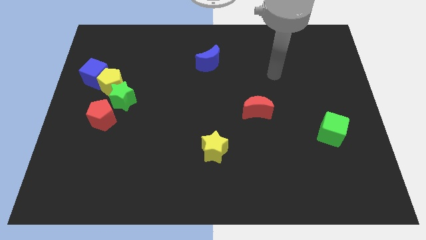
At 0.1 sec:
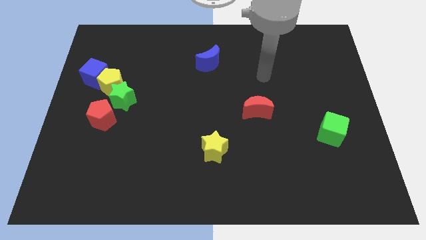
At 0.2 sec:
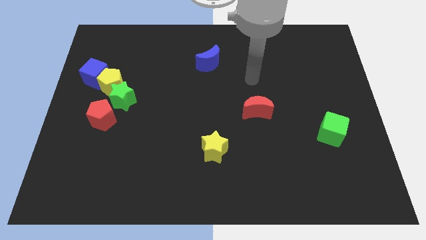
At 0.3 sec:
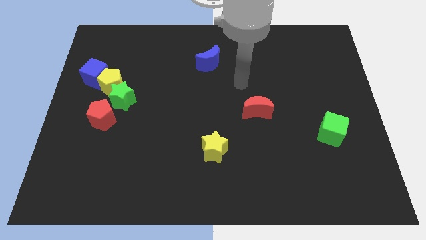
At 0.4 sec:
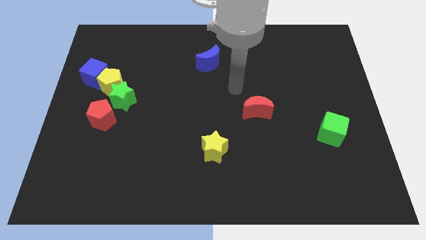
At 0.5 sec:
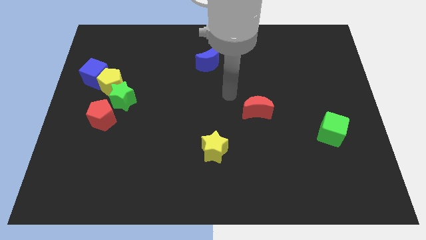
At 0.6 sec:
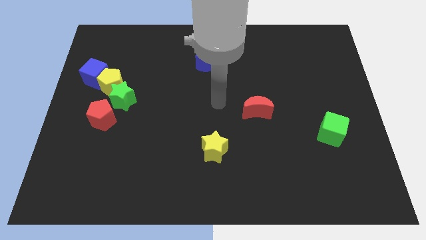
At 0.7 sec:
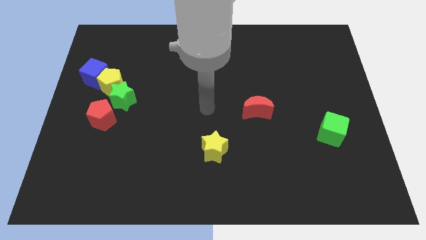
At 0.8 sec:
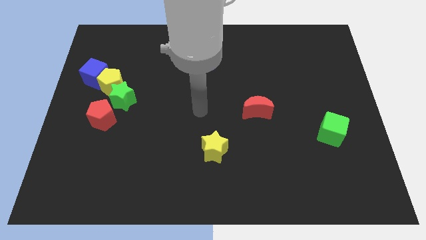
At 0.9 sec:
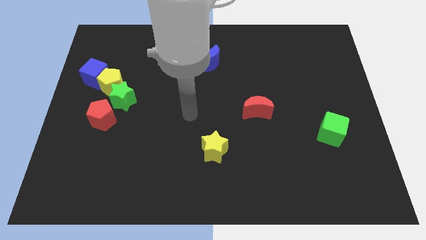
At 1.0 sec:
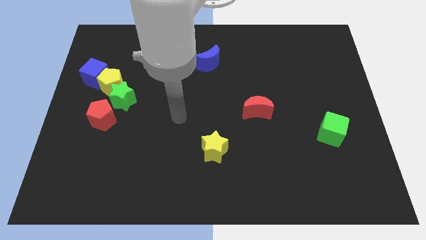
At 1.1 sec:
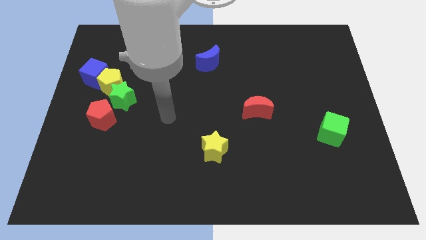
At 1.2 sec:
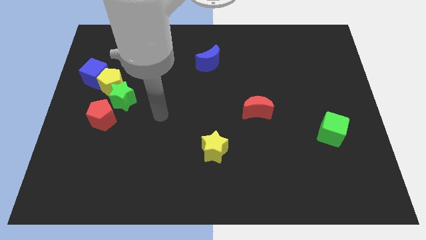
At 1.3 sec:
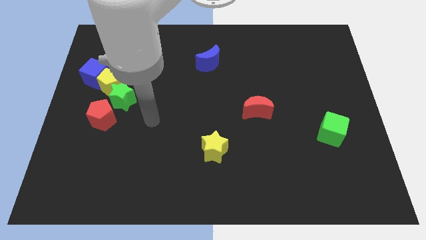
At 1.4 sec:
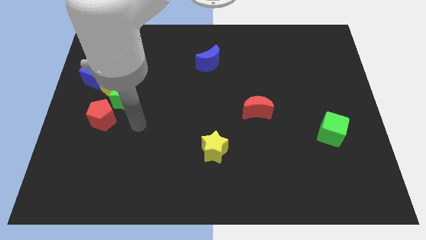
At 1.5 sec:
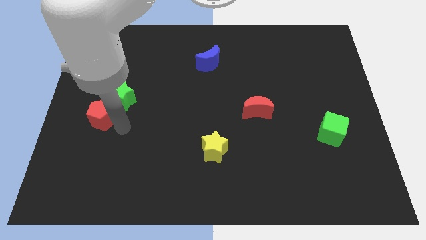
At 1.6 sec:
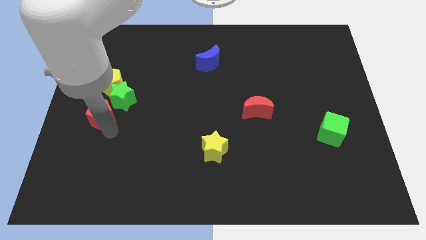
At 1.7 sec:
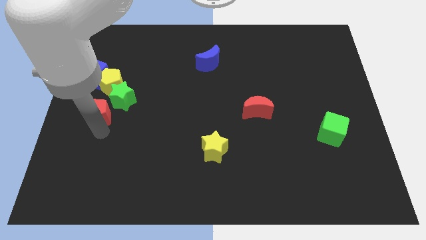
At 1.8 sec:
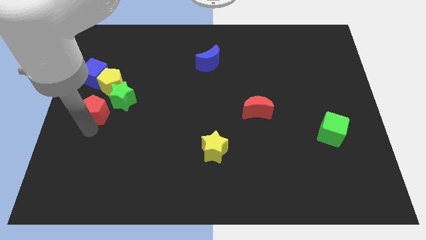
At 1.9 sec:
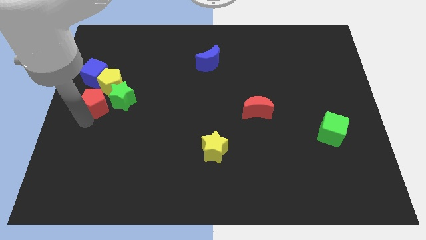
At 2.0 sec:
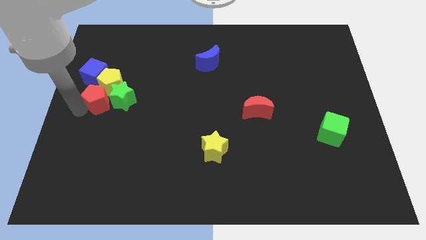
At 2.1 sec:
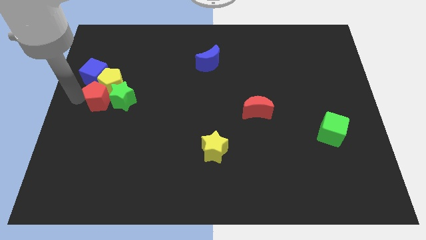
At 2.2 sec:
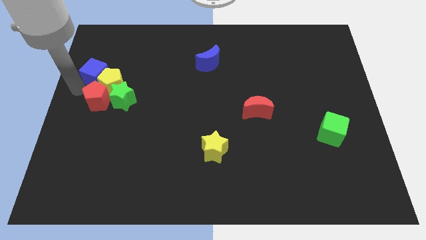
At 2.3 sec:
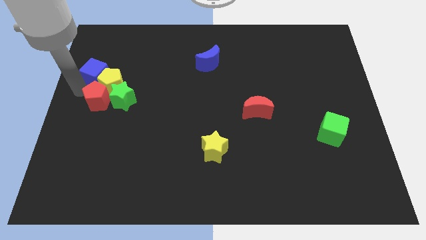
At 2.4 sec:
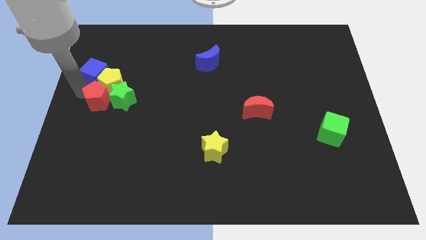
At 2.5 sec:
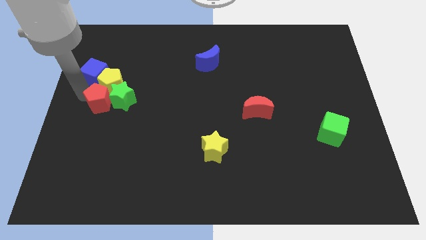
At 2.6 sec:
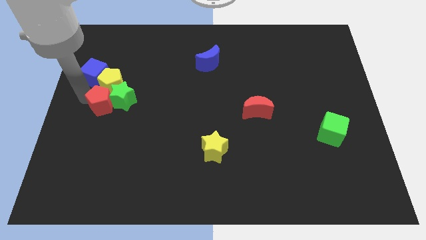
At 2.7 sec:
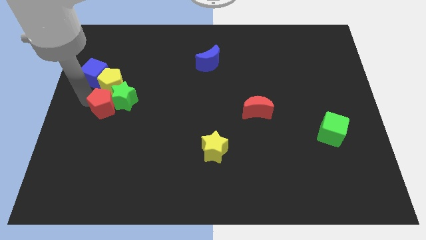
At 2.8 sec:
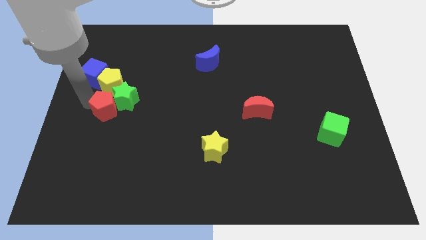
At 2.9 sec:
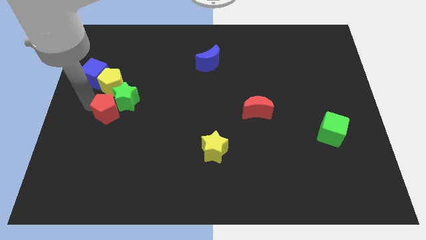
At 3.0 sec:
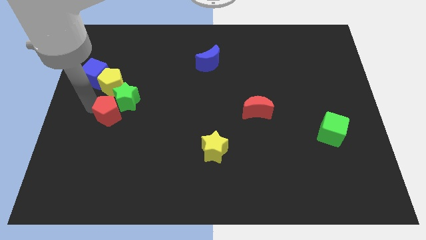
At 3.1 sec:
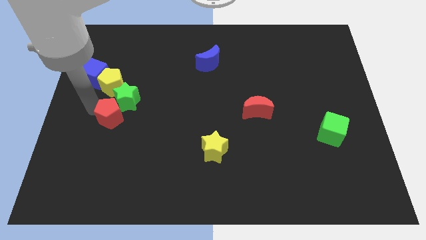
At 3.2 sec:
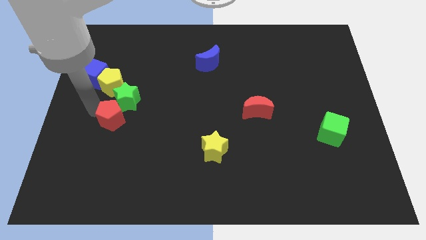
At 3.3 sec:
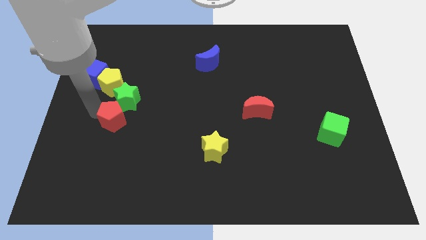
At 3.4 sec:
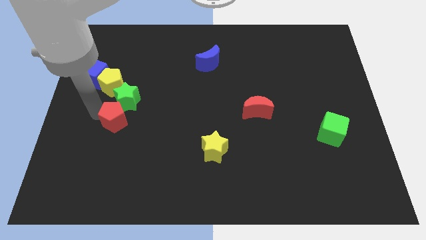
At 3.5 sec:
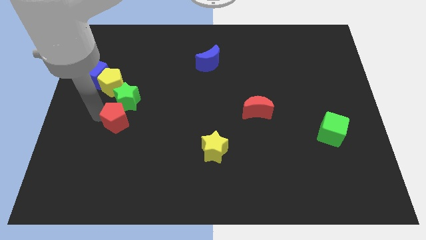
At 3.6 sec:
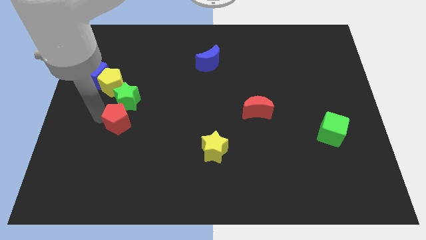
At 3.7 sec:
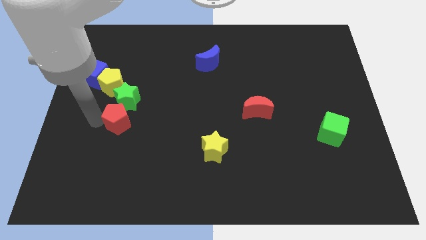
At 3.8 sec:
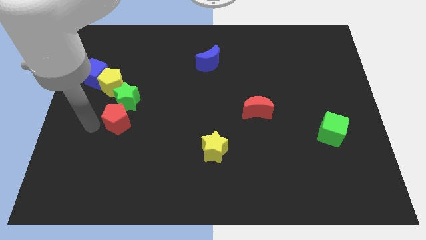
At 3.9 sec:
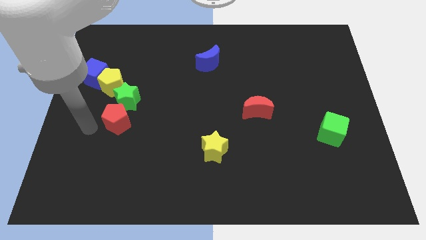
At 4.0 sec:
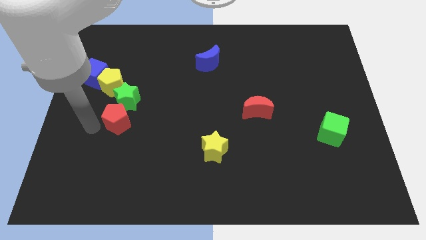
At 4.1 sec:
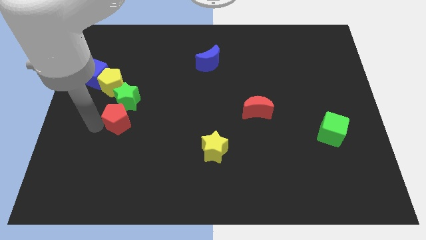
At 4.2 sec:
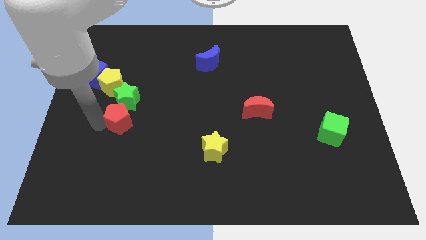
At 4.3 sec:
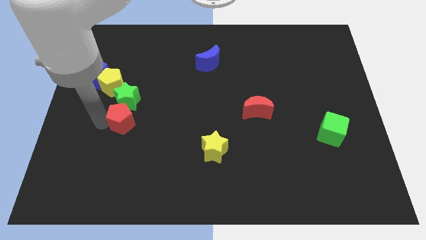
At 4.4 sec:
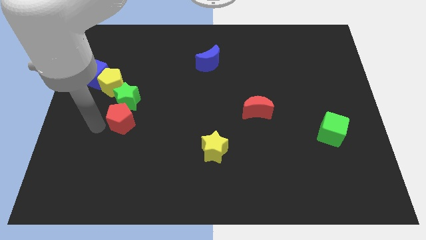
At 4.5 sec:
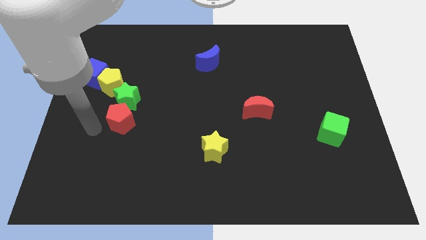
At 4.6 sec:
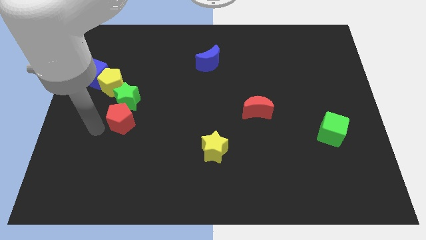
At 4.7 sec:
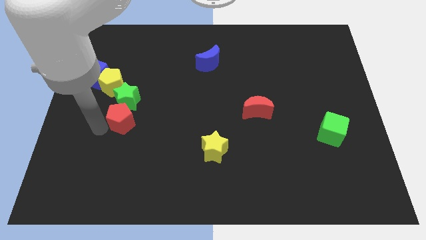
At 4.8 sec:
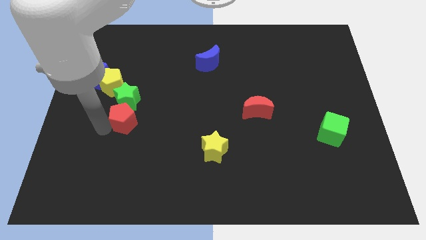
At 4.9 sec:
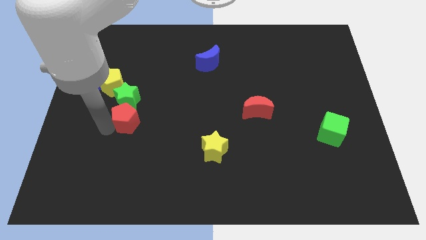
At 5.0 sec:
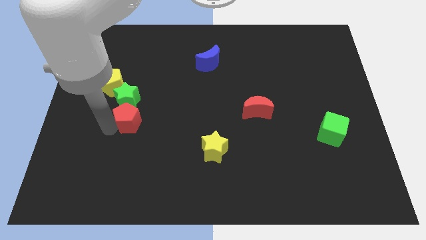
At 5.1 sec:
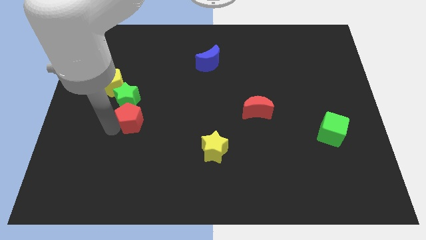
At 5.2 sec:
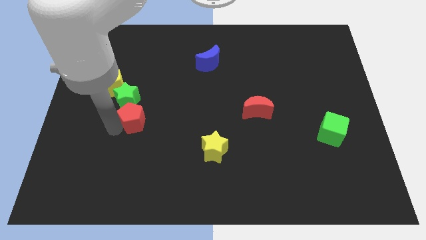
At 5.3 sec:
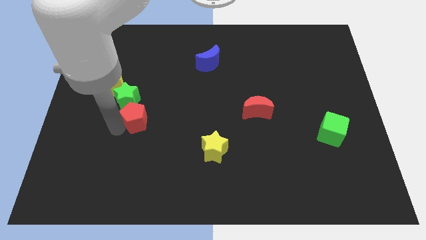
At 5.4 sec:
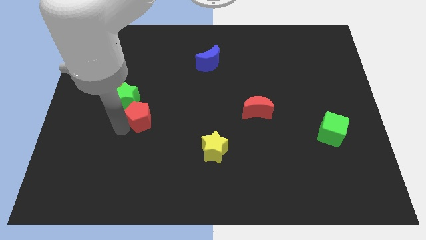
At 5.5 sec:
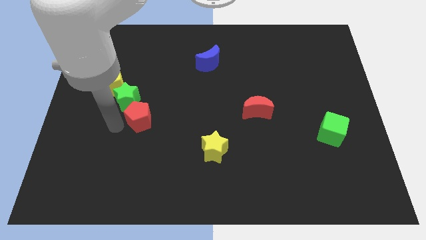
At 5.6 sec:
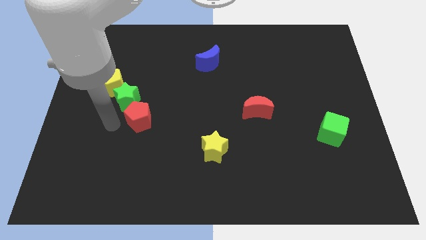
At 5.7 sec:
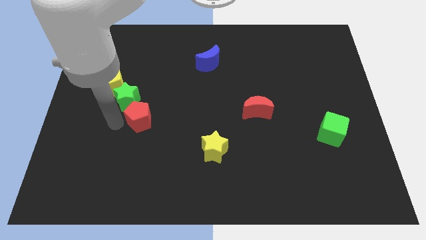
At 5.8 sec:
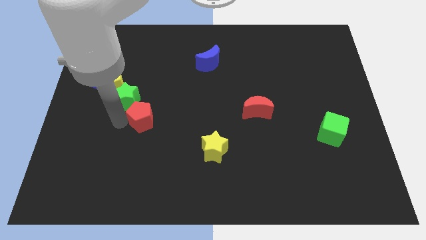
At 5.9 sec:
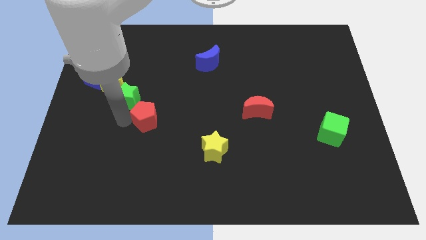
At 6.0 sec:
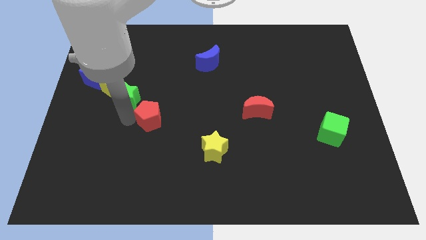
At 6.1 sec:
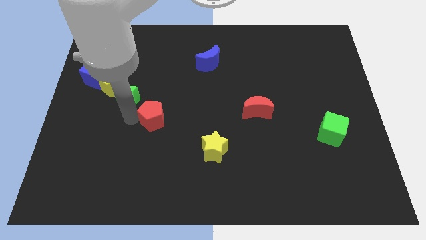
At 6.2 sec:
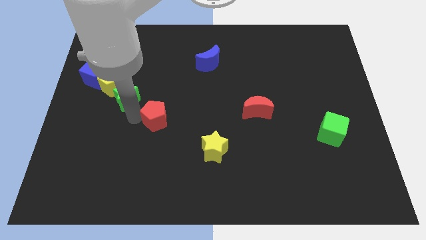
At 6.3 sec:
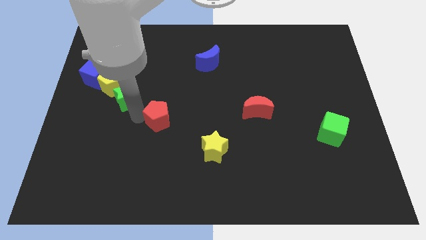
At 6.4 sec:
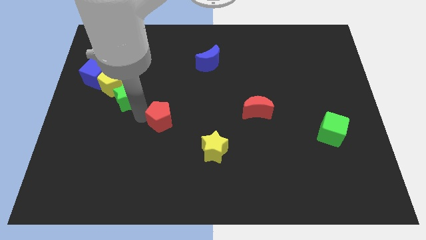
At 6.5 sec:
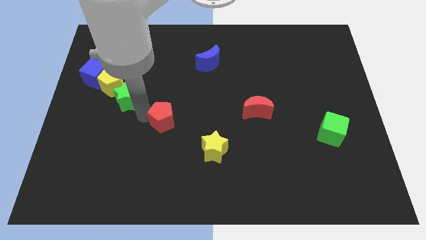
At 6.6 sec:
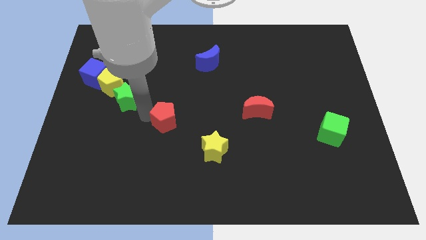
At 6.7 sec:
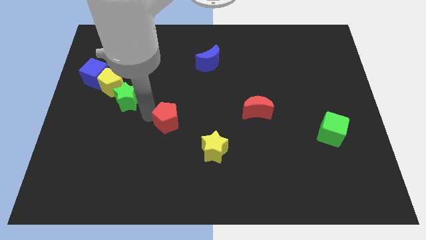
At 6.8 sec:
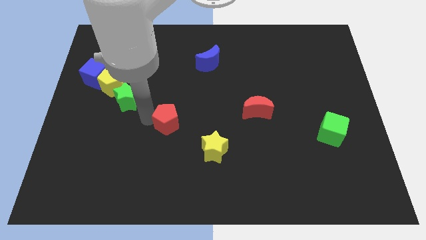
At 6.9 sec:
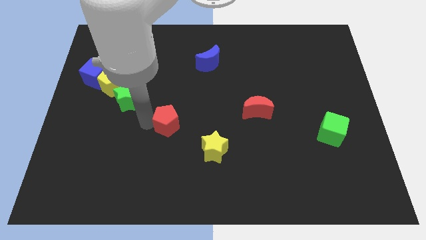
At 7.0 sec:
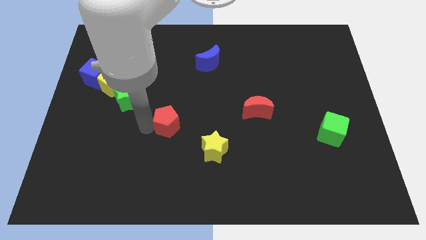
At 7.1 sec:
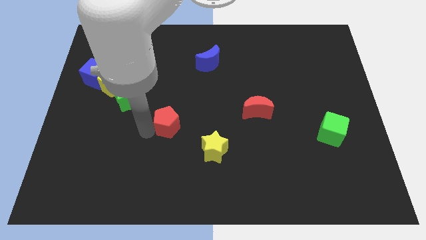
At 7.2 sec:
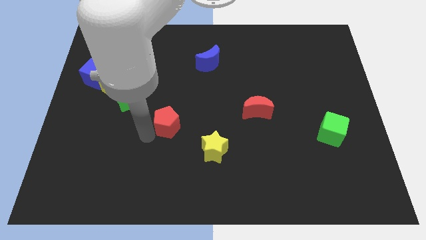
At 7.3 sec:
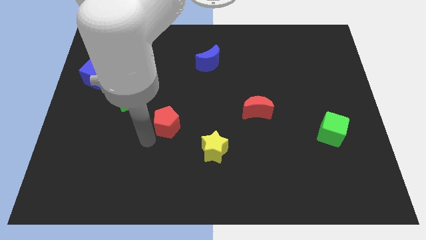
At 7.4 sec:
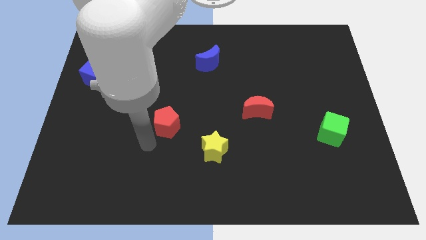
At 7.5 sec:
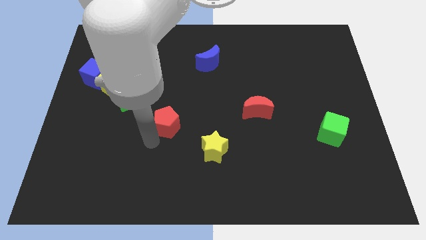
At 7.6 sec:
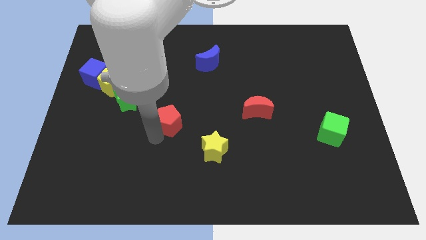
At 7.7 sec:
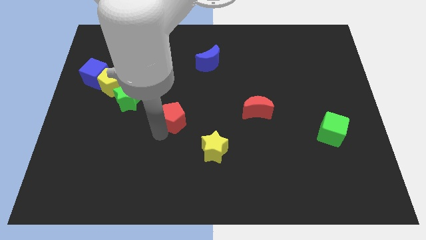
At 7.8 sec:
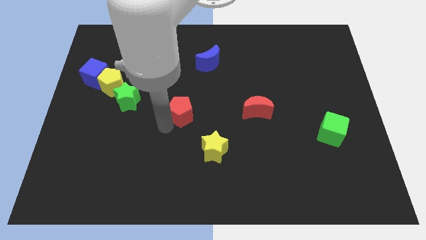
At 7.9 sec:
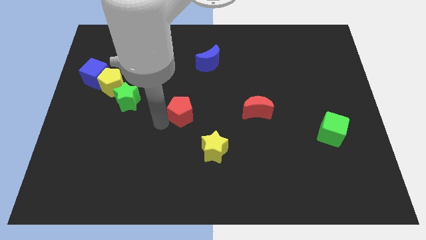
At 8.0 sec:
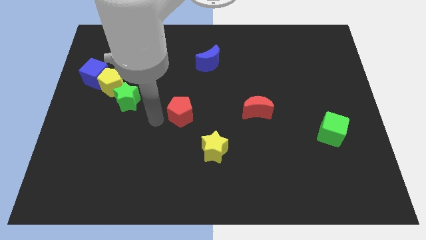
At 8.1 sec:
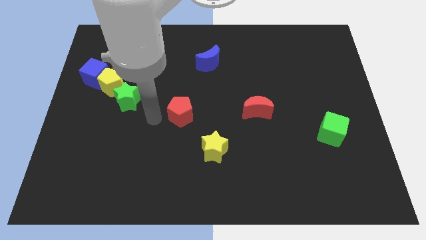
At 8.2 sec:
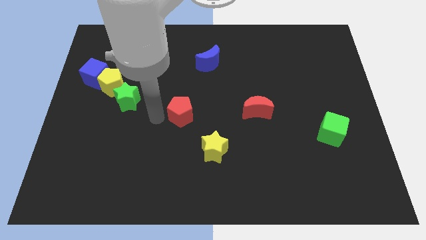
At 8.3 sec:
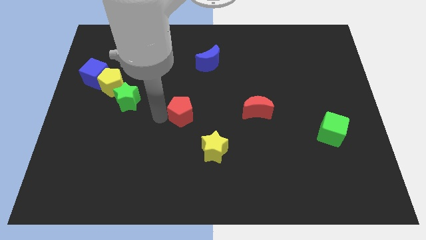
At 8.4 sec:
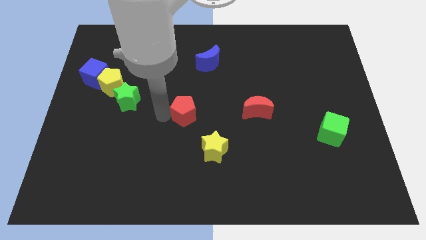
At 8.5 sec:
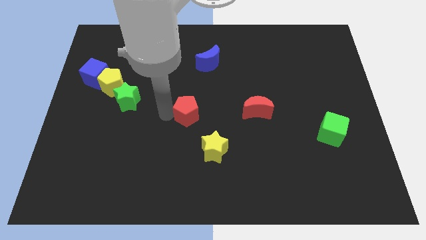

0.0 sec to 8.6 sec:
push the red pentagon to the left side of the red moon
